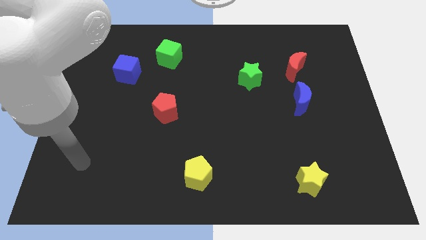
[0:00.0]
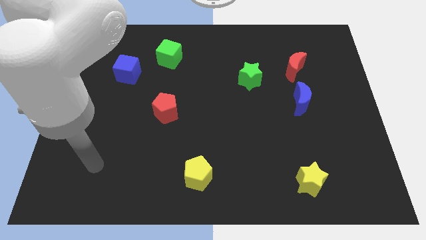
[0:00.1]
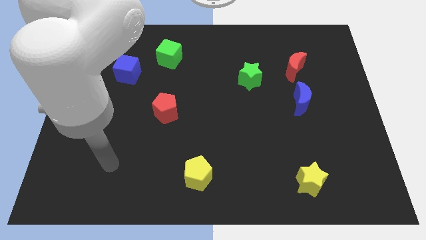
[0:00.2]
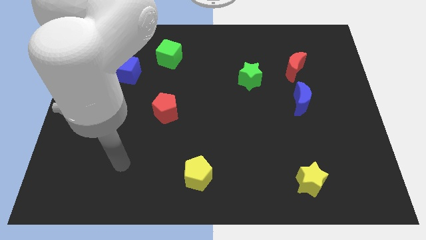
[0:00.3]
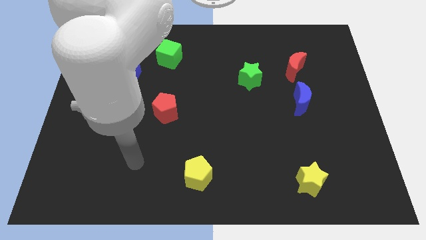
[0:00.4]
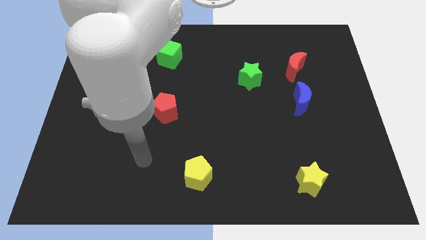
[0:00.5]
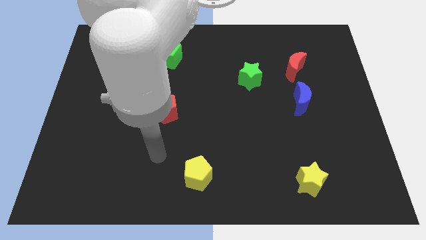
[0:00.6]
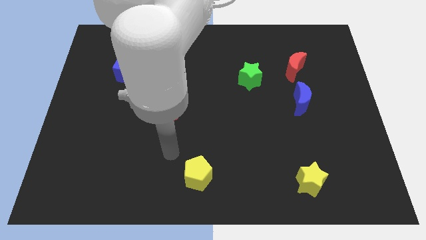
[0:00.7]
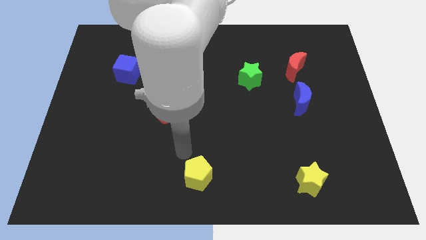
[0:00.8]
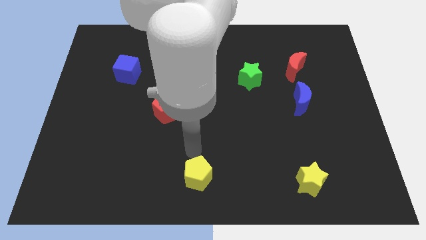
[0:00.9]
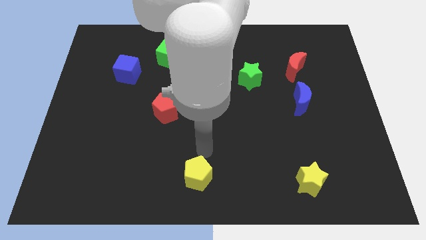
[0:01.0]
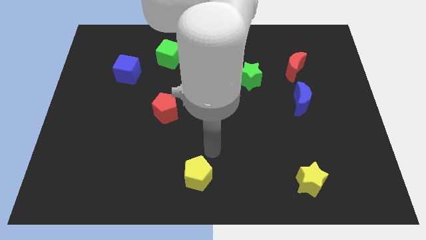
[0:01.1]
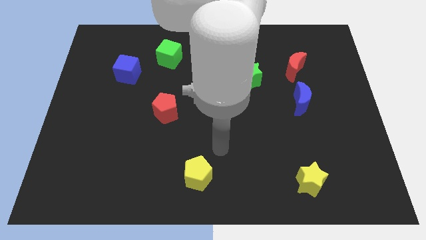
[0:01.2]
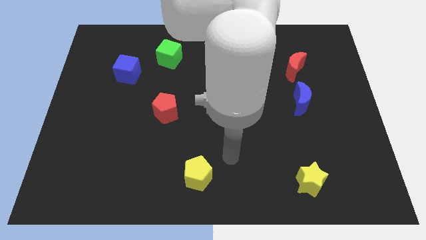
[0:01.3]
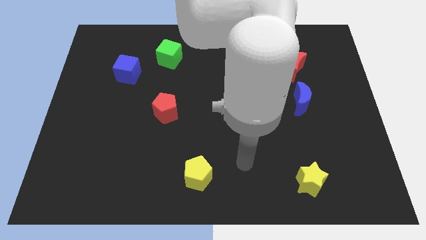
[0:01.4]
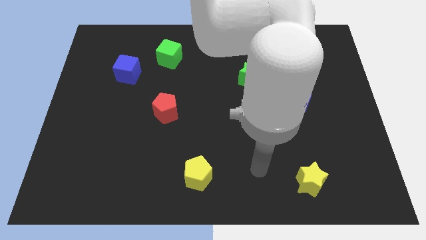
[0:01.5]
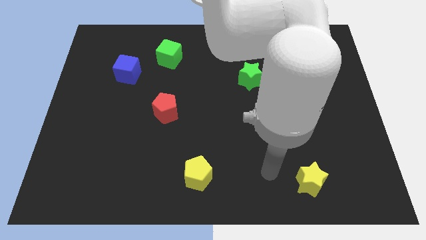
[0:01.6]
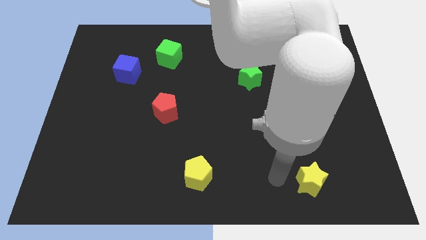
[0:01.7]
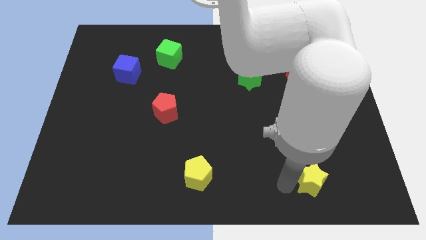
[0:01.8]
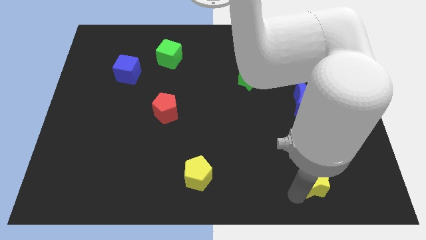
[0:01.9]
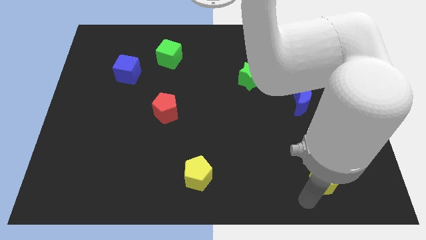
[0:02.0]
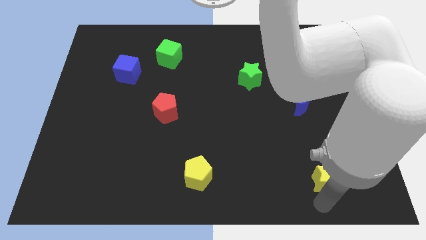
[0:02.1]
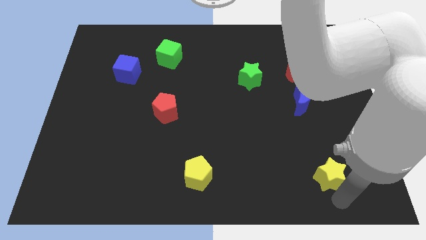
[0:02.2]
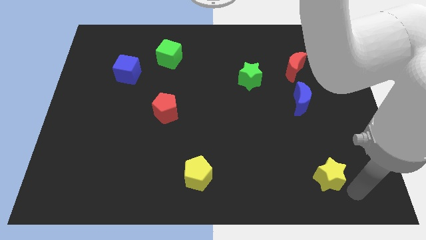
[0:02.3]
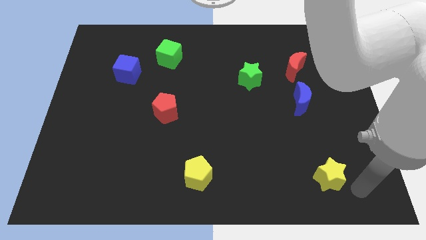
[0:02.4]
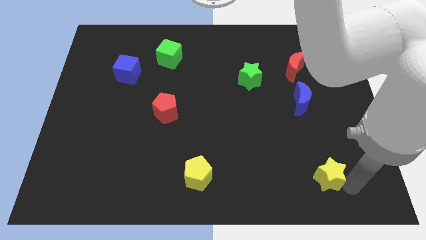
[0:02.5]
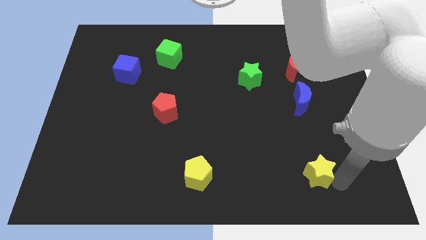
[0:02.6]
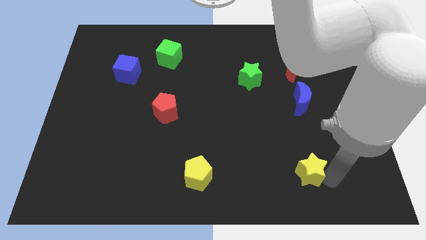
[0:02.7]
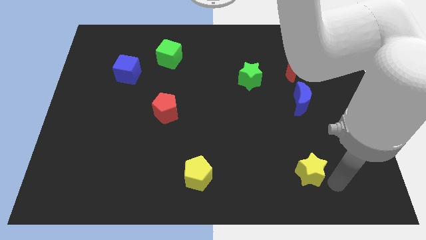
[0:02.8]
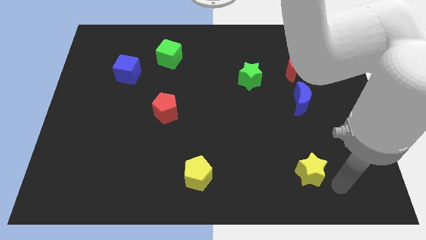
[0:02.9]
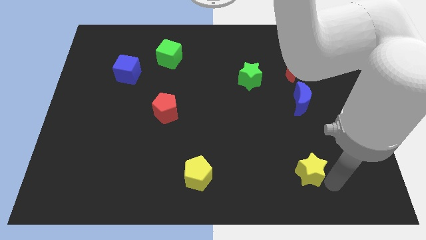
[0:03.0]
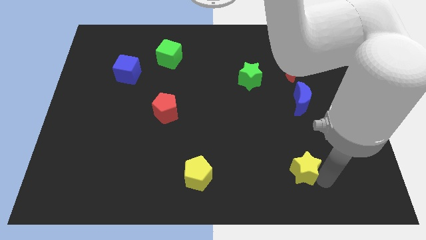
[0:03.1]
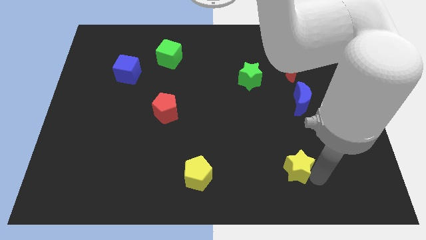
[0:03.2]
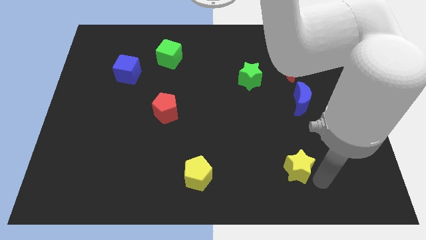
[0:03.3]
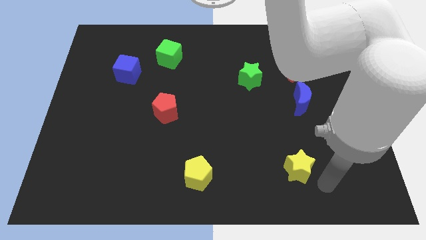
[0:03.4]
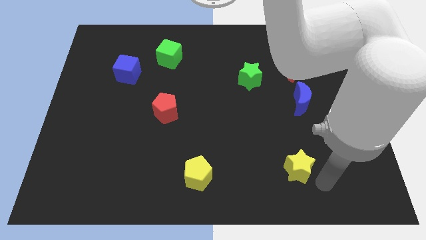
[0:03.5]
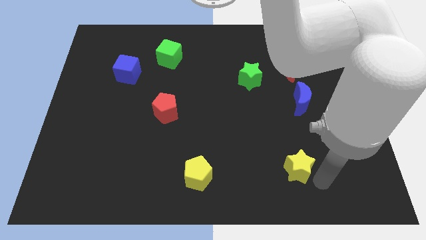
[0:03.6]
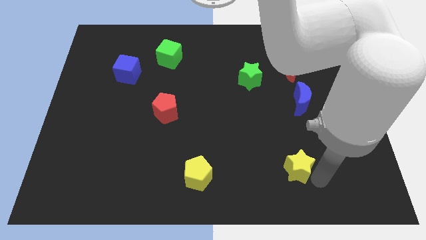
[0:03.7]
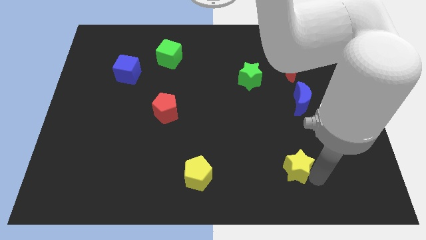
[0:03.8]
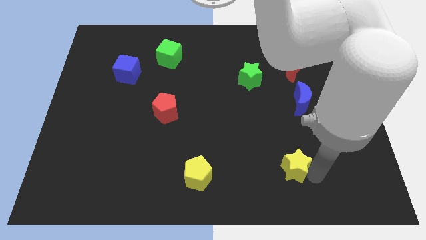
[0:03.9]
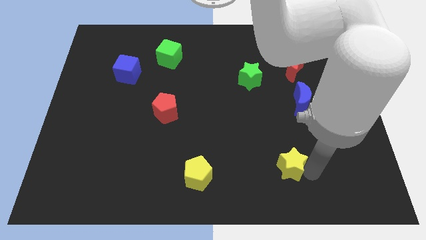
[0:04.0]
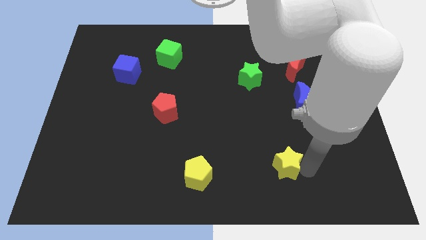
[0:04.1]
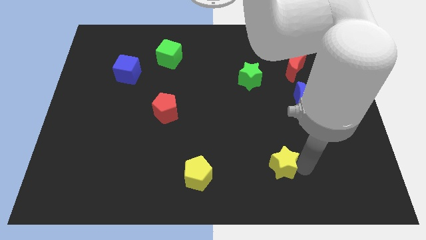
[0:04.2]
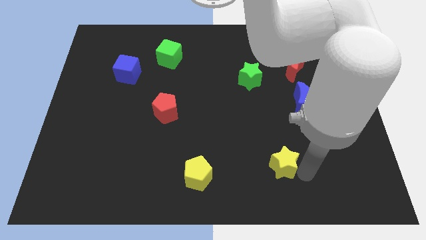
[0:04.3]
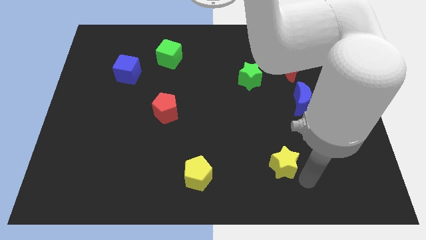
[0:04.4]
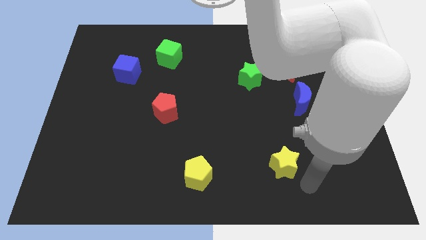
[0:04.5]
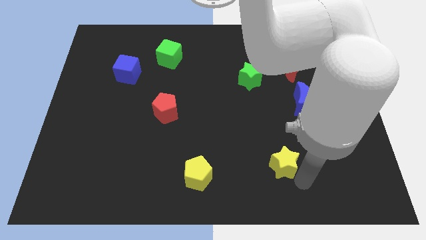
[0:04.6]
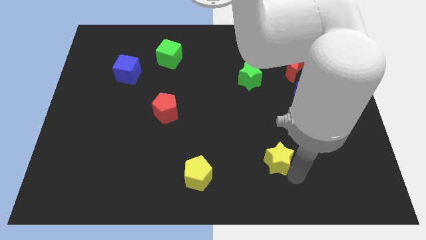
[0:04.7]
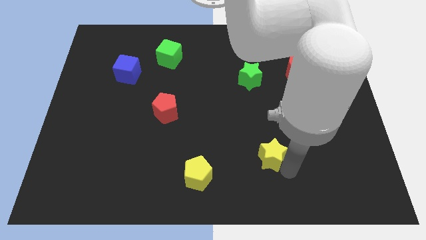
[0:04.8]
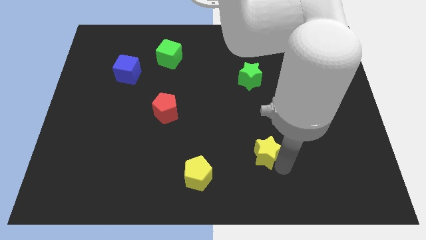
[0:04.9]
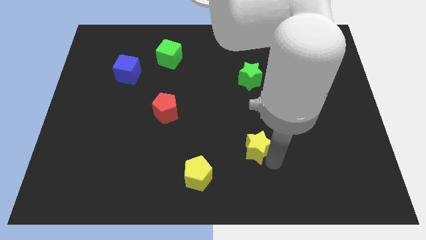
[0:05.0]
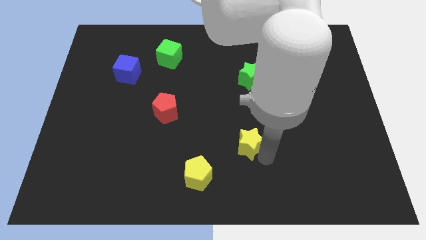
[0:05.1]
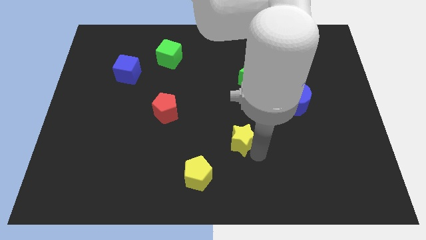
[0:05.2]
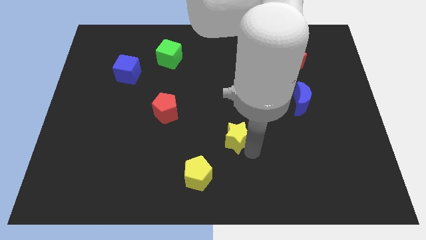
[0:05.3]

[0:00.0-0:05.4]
move the yellow star to the middle of the board

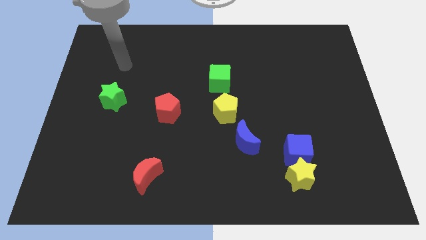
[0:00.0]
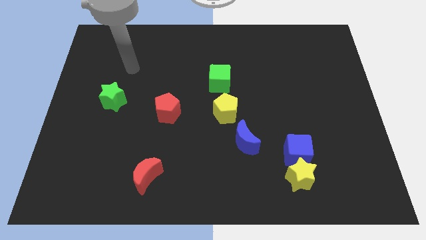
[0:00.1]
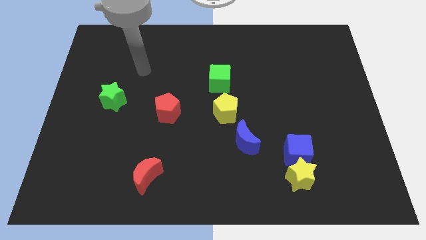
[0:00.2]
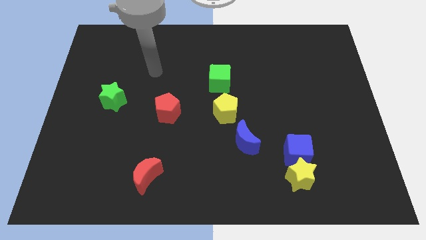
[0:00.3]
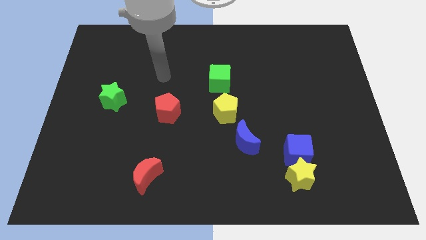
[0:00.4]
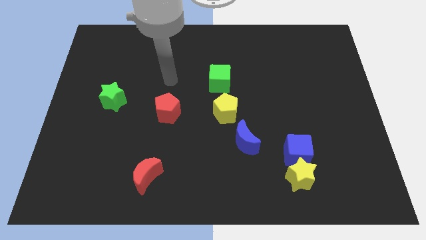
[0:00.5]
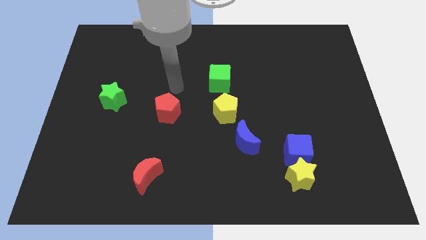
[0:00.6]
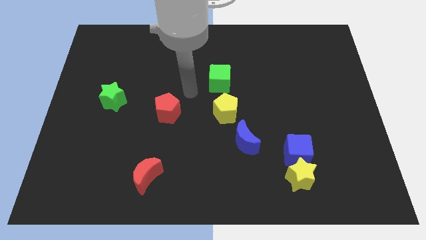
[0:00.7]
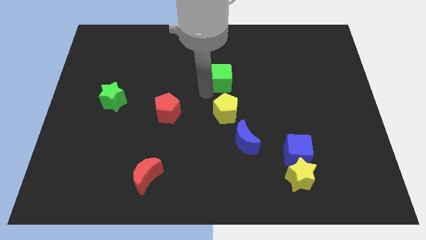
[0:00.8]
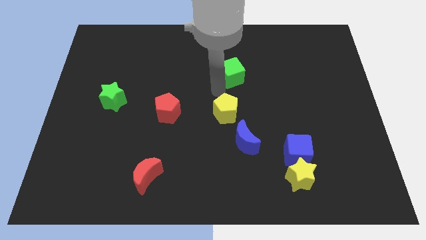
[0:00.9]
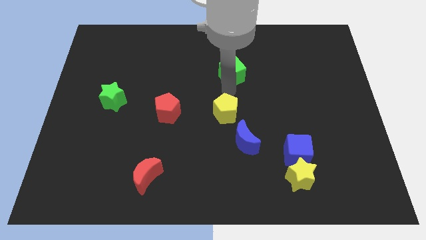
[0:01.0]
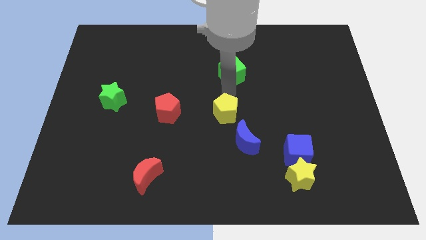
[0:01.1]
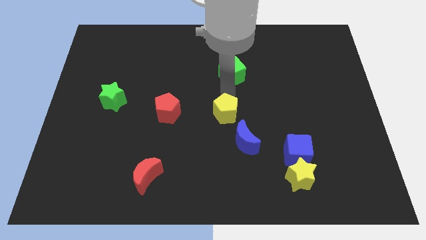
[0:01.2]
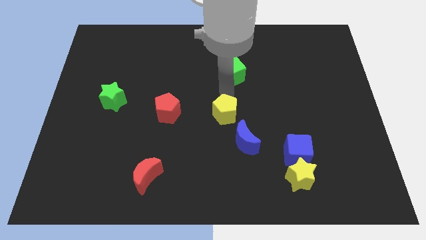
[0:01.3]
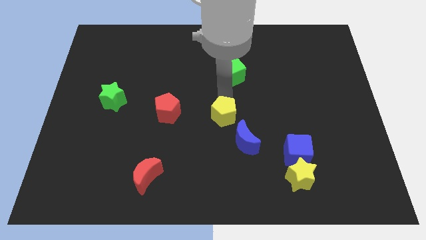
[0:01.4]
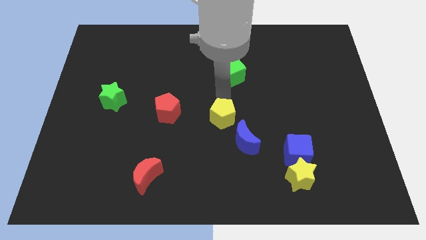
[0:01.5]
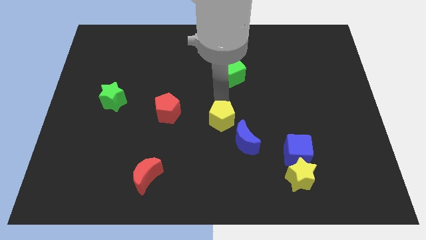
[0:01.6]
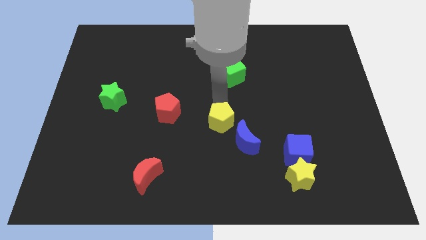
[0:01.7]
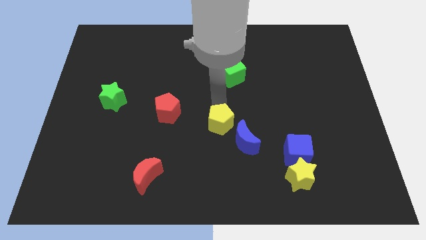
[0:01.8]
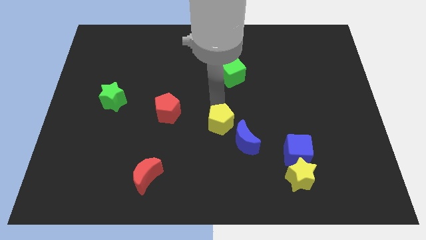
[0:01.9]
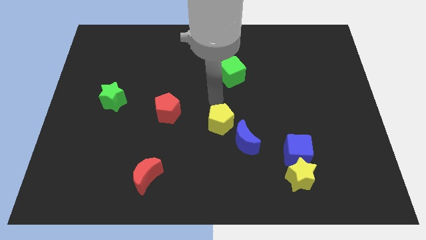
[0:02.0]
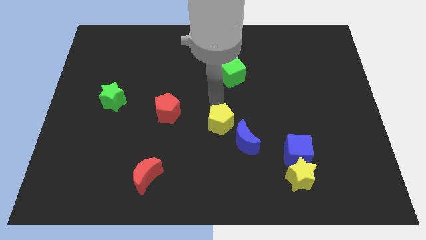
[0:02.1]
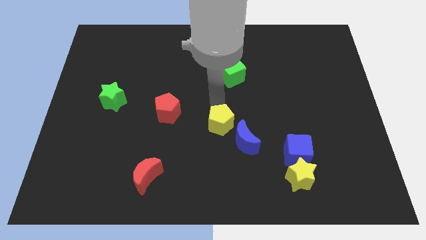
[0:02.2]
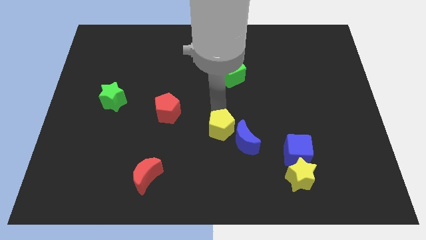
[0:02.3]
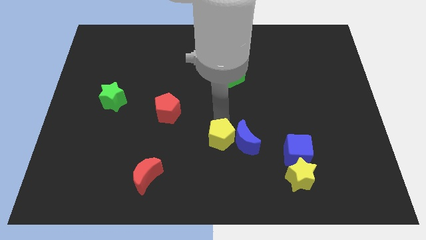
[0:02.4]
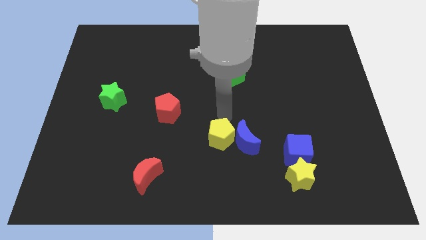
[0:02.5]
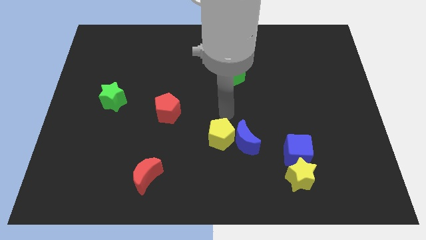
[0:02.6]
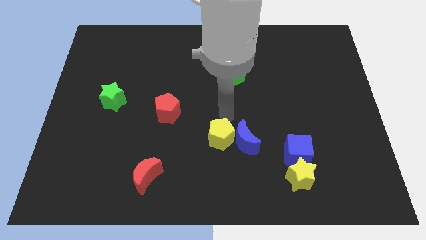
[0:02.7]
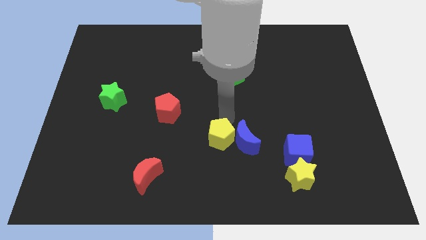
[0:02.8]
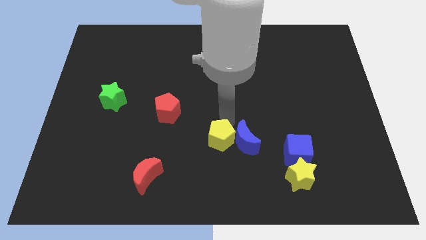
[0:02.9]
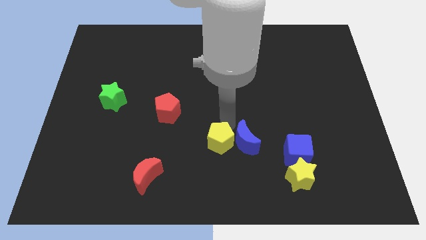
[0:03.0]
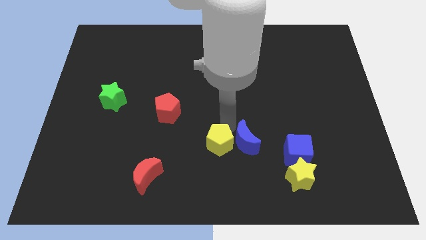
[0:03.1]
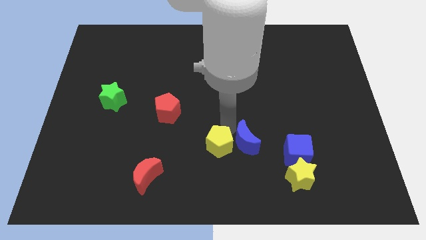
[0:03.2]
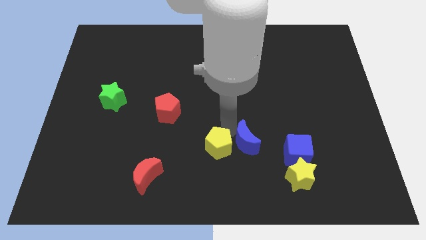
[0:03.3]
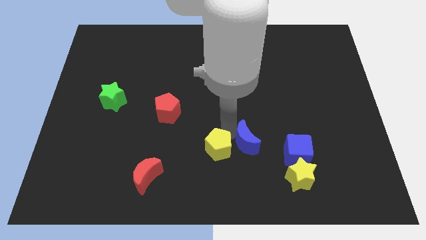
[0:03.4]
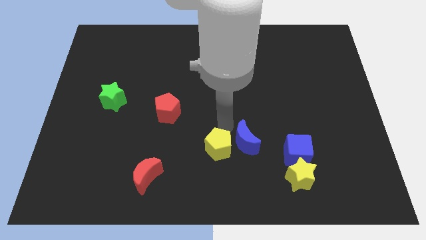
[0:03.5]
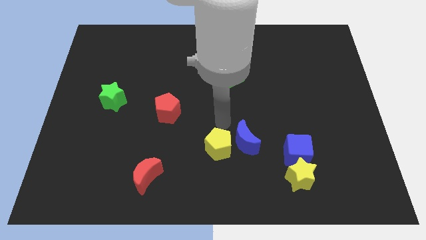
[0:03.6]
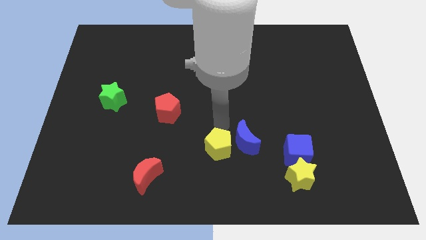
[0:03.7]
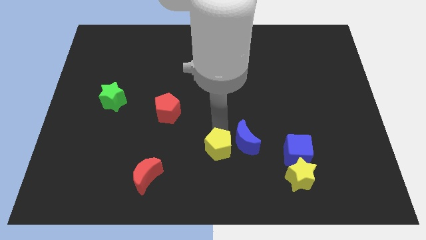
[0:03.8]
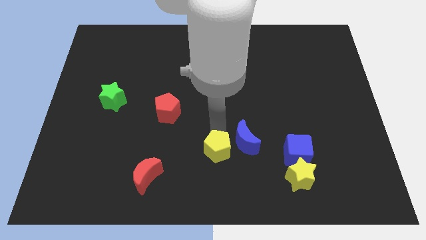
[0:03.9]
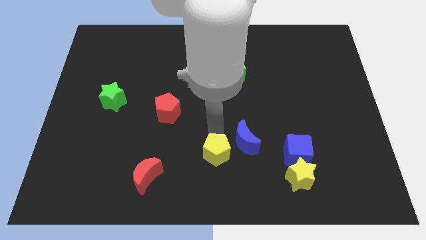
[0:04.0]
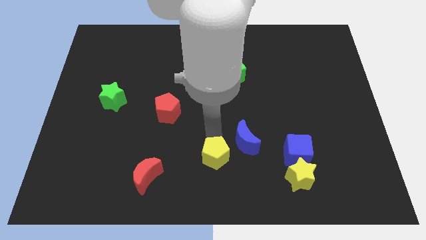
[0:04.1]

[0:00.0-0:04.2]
slide the yellow pentagon to the bottom side
